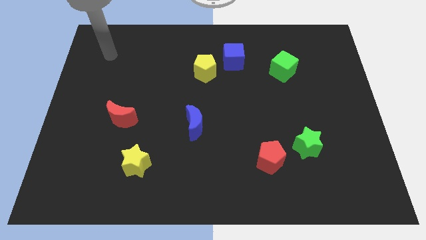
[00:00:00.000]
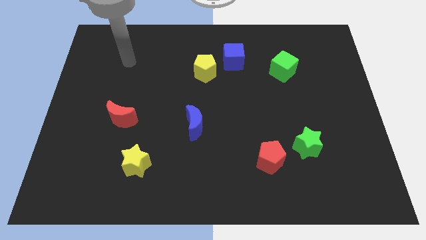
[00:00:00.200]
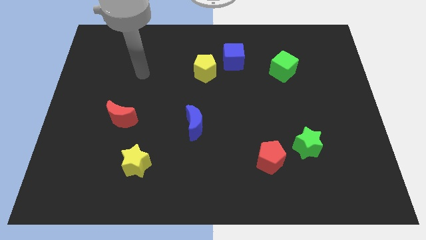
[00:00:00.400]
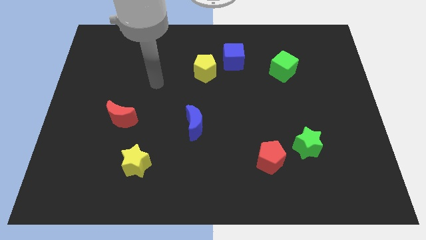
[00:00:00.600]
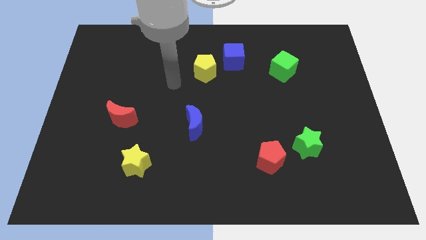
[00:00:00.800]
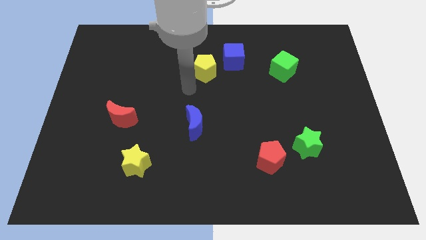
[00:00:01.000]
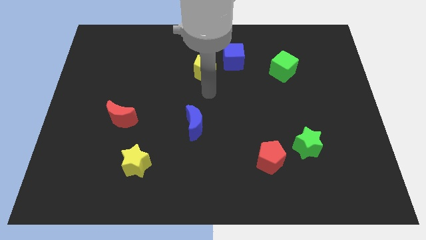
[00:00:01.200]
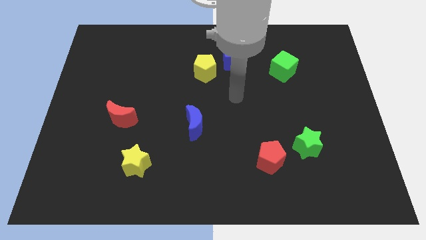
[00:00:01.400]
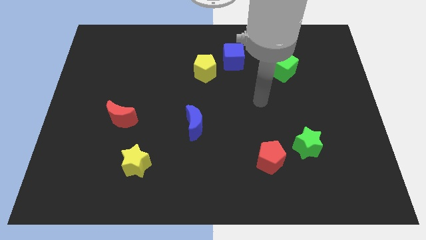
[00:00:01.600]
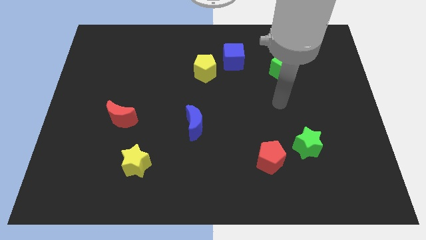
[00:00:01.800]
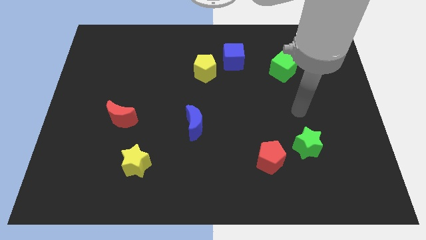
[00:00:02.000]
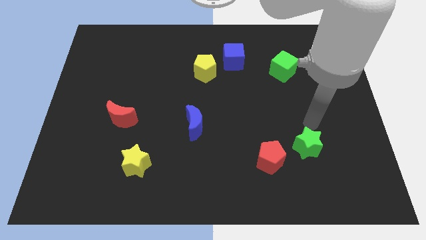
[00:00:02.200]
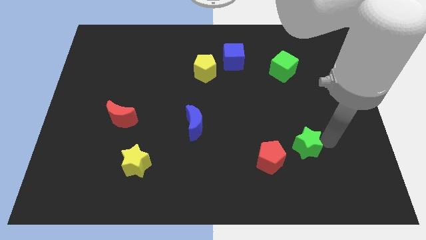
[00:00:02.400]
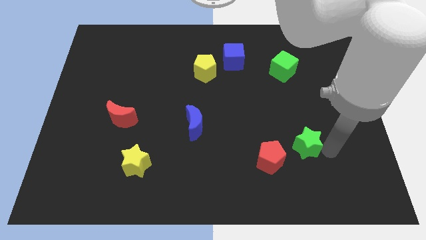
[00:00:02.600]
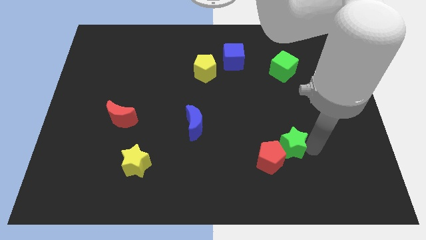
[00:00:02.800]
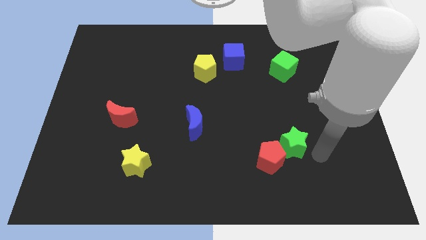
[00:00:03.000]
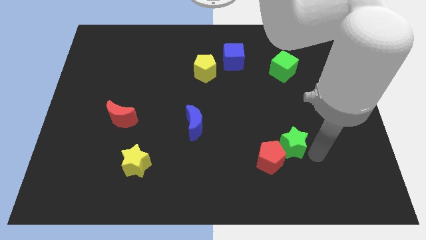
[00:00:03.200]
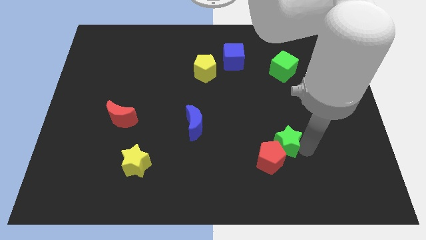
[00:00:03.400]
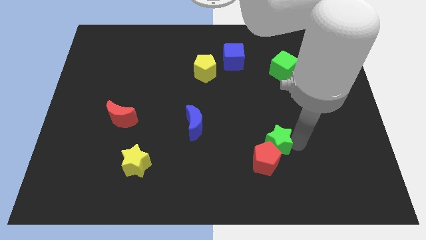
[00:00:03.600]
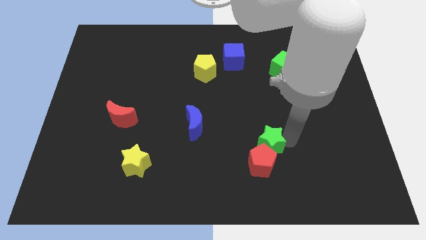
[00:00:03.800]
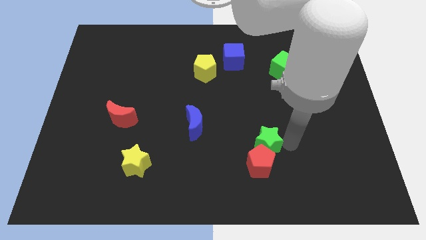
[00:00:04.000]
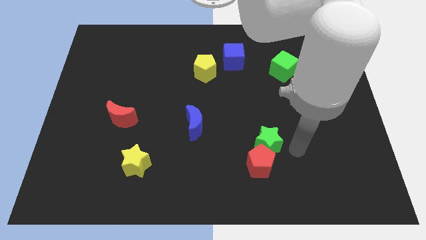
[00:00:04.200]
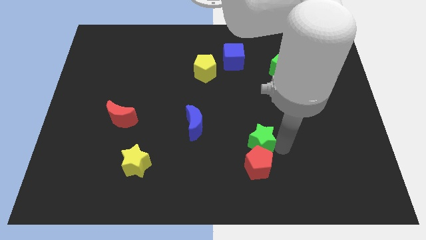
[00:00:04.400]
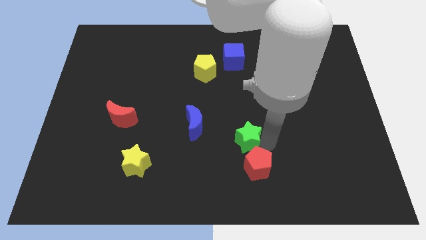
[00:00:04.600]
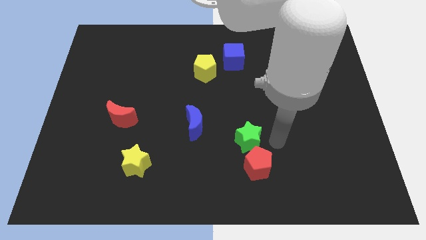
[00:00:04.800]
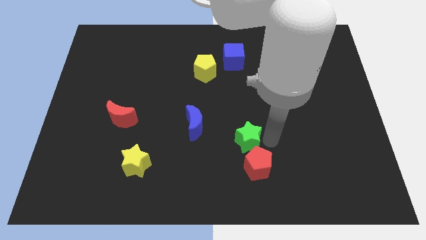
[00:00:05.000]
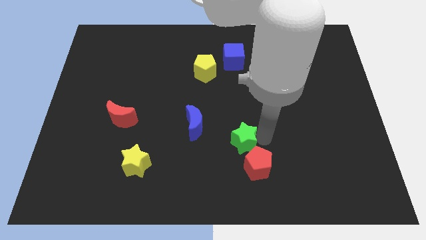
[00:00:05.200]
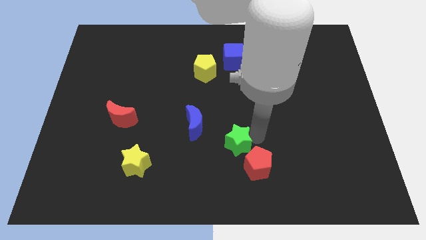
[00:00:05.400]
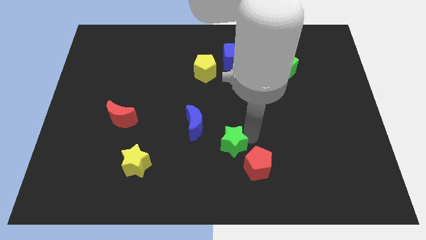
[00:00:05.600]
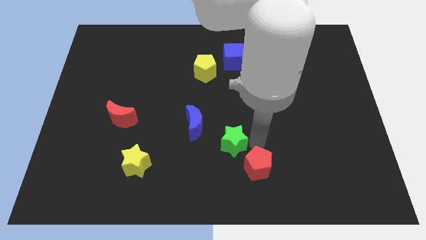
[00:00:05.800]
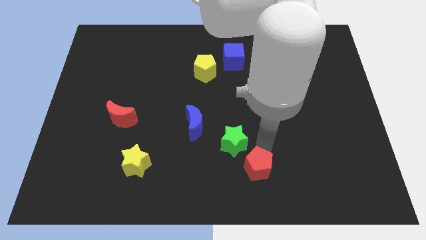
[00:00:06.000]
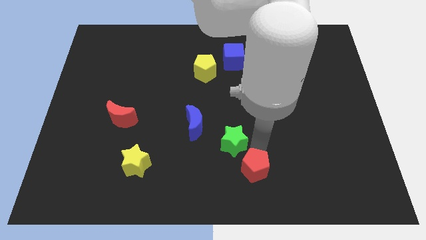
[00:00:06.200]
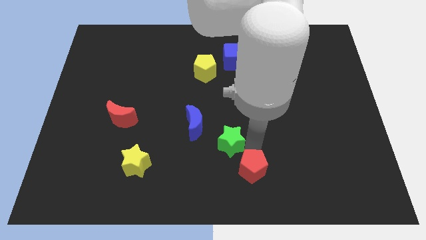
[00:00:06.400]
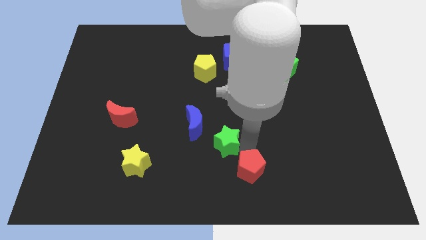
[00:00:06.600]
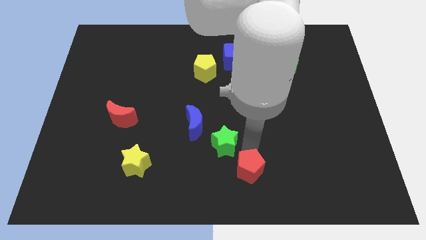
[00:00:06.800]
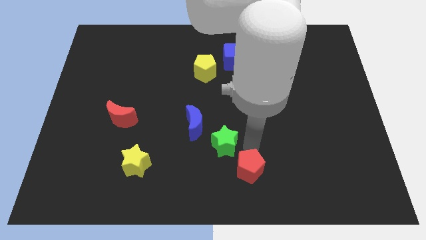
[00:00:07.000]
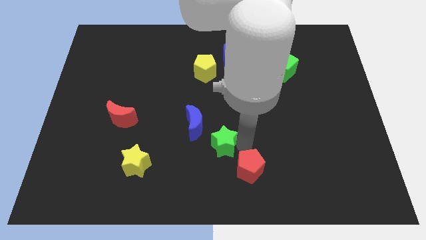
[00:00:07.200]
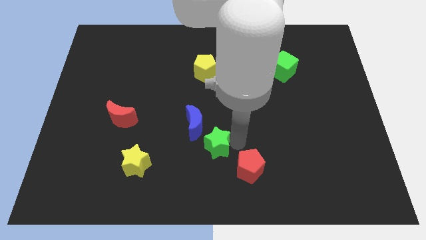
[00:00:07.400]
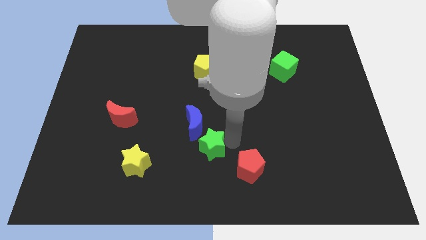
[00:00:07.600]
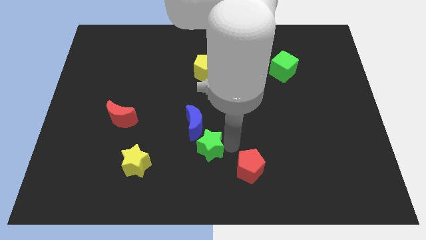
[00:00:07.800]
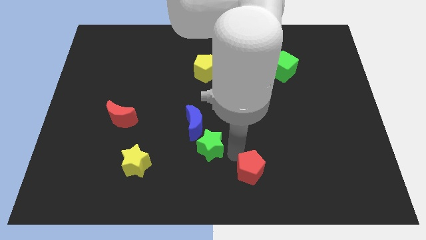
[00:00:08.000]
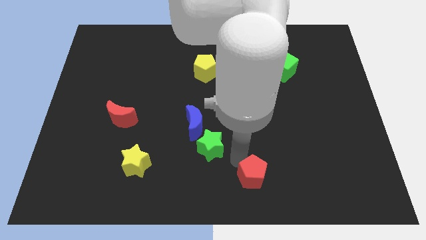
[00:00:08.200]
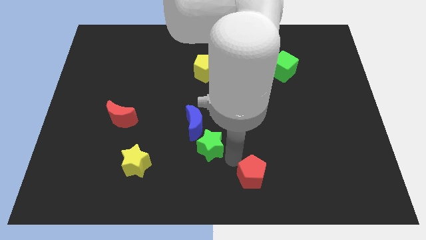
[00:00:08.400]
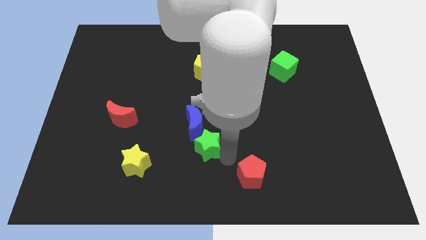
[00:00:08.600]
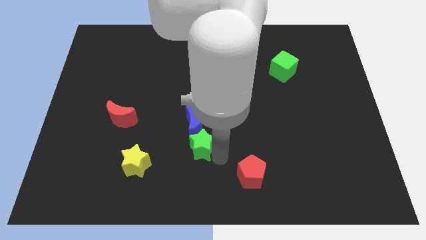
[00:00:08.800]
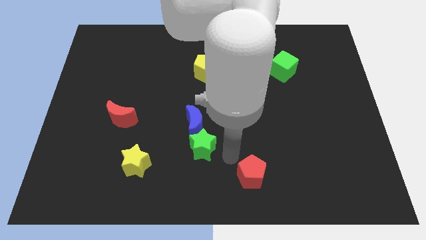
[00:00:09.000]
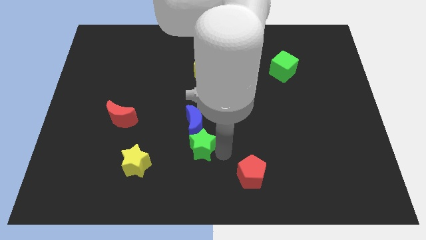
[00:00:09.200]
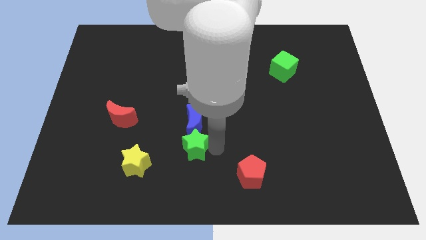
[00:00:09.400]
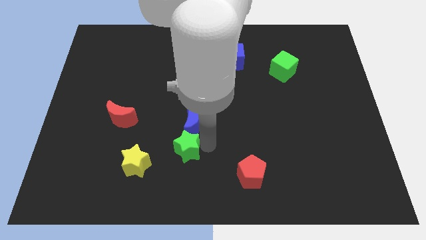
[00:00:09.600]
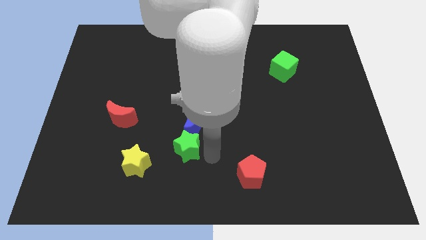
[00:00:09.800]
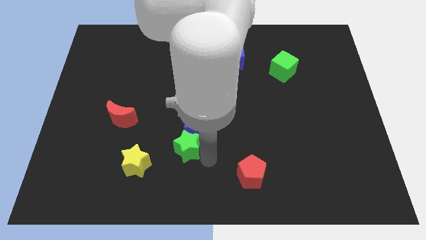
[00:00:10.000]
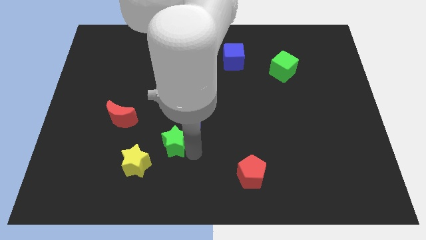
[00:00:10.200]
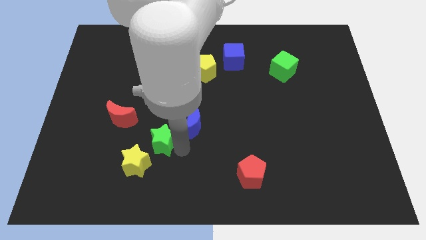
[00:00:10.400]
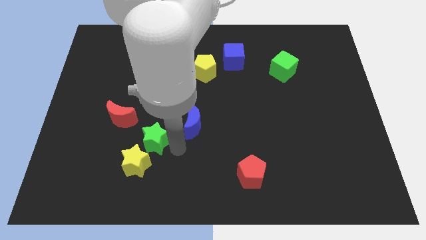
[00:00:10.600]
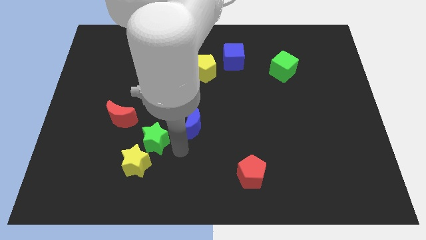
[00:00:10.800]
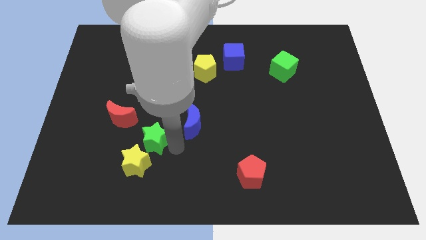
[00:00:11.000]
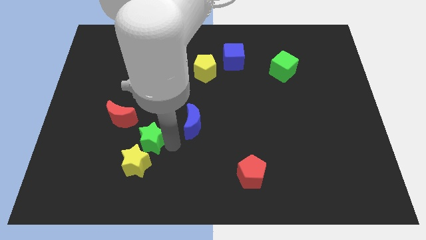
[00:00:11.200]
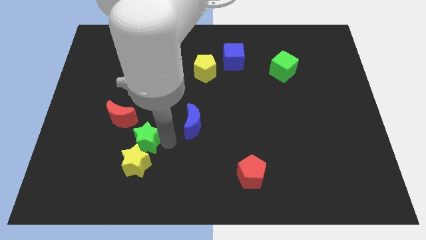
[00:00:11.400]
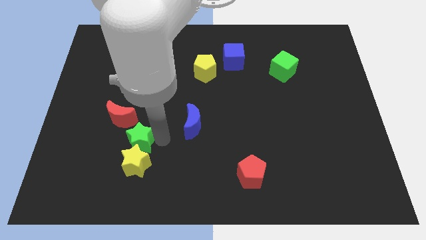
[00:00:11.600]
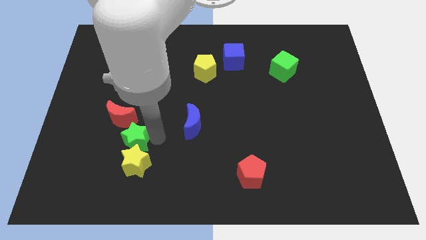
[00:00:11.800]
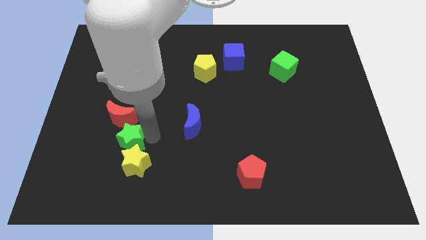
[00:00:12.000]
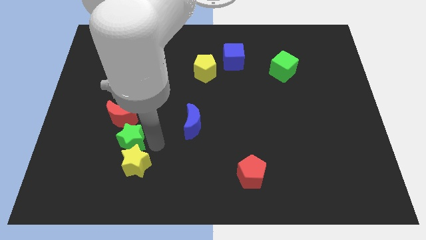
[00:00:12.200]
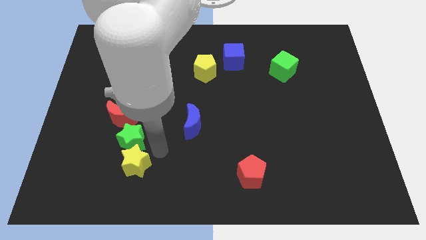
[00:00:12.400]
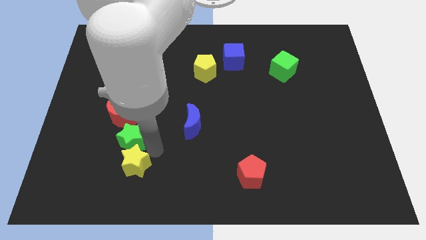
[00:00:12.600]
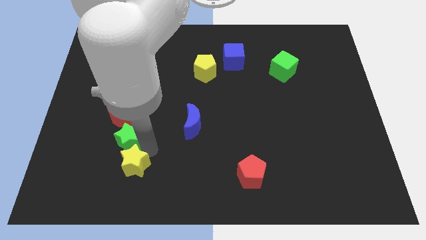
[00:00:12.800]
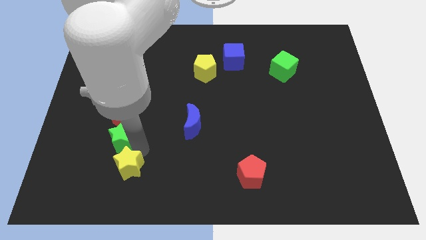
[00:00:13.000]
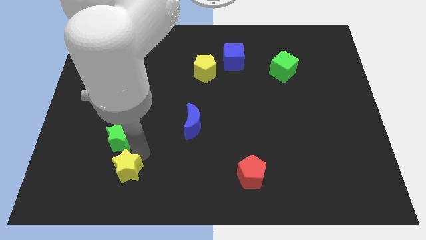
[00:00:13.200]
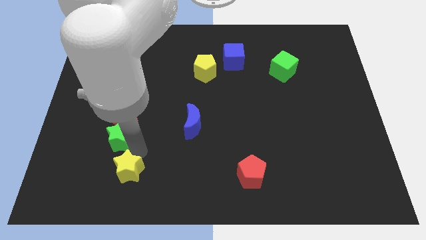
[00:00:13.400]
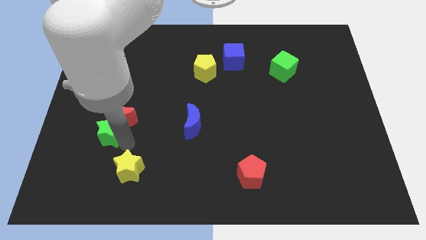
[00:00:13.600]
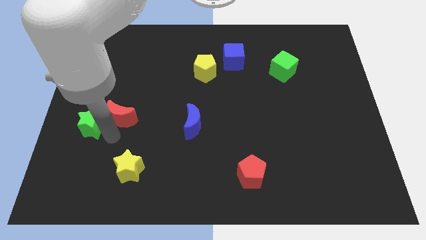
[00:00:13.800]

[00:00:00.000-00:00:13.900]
put the green star to the left side of the board
